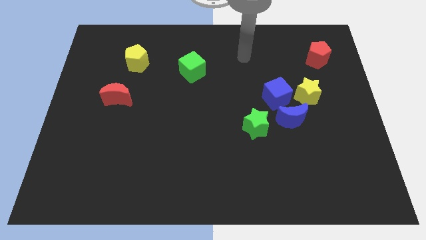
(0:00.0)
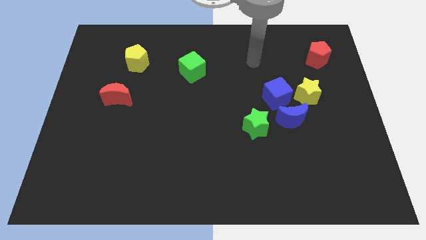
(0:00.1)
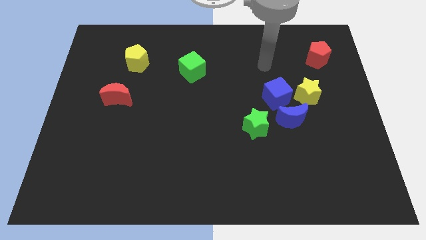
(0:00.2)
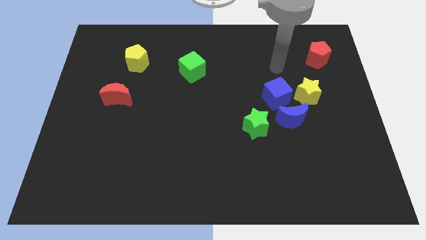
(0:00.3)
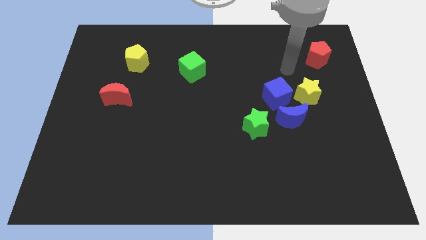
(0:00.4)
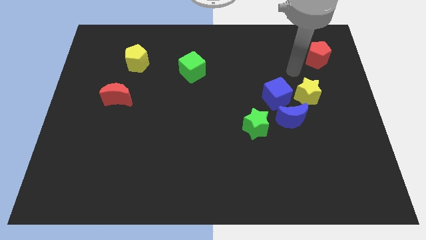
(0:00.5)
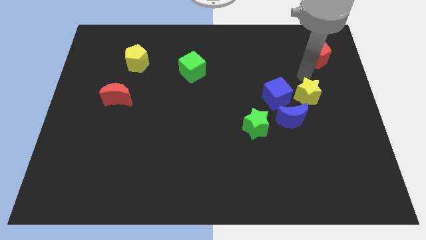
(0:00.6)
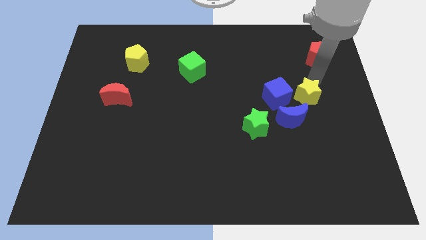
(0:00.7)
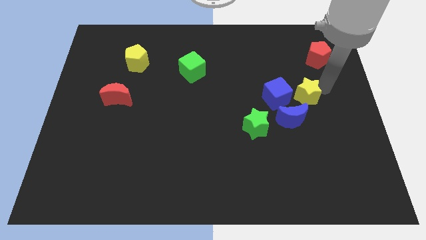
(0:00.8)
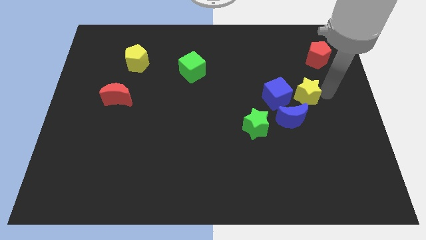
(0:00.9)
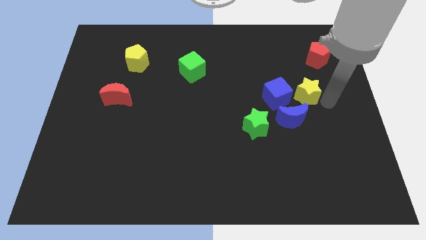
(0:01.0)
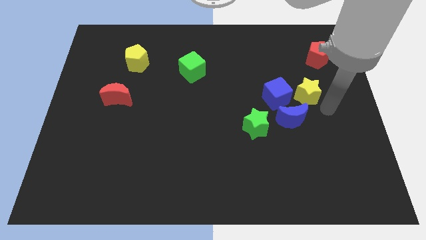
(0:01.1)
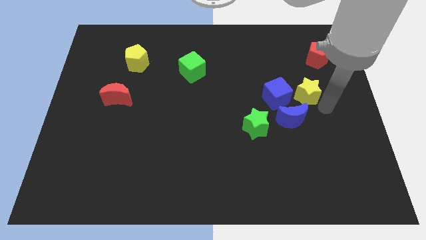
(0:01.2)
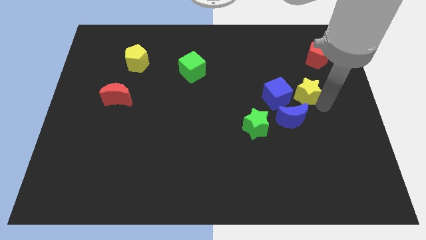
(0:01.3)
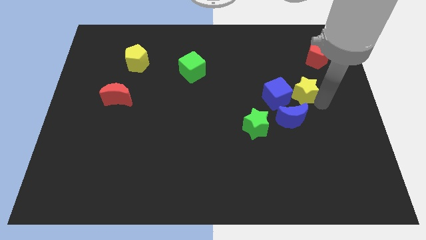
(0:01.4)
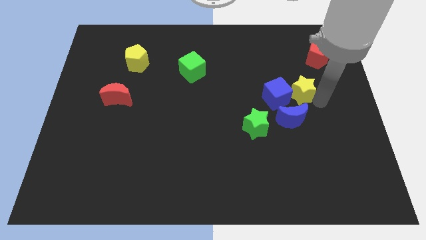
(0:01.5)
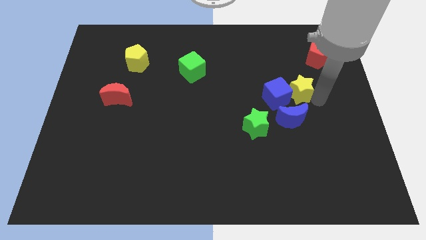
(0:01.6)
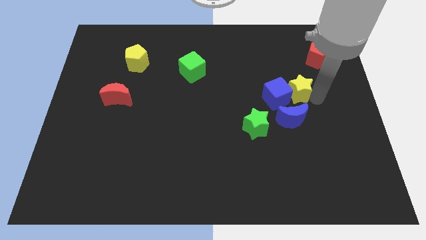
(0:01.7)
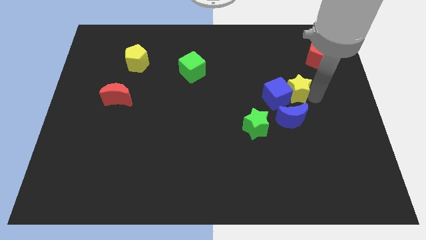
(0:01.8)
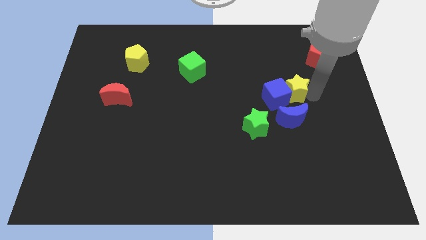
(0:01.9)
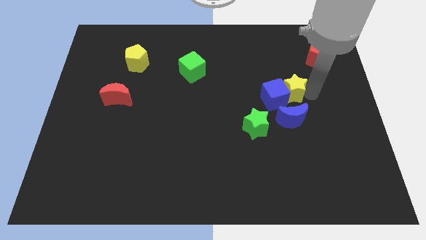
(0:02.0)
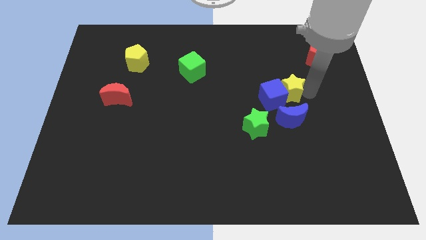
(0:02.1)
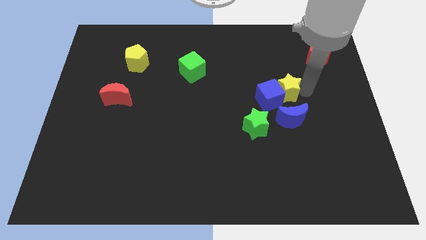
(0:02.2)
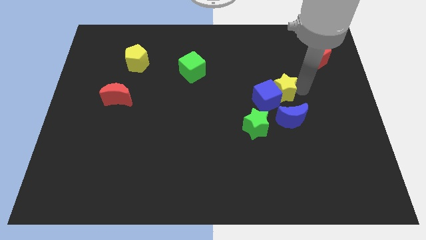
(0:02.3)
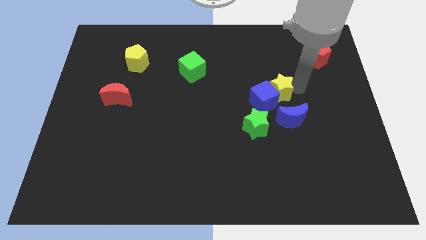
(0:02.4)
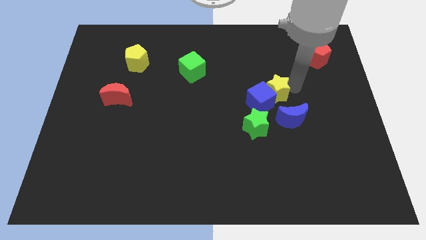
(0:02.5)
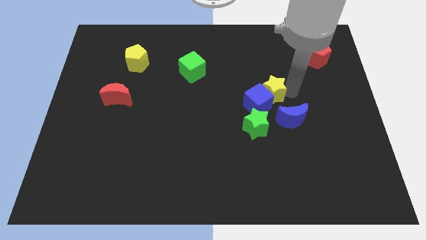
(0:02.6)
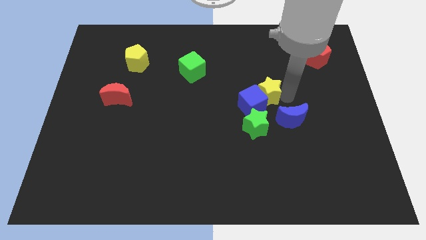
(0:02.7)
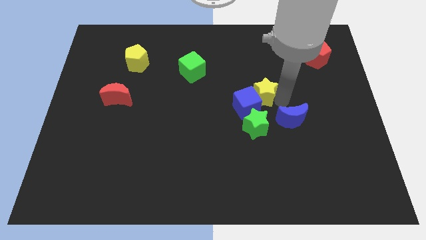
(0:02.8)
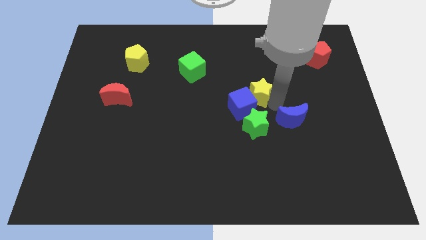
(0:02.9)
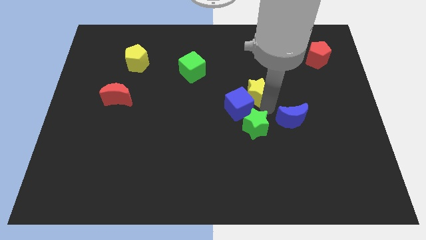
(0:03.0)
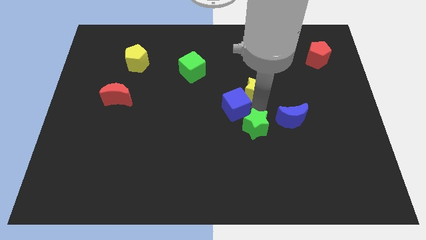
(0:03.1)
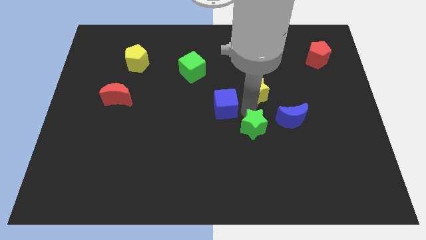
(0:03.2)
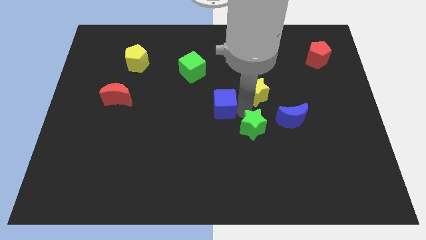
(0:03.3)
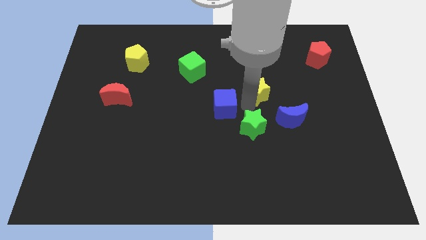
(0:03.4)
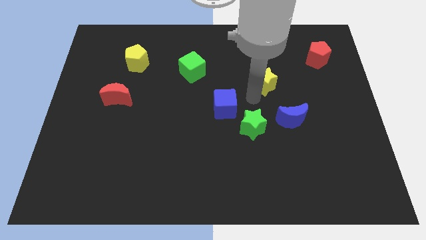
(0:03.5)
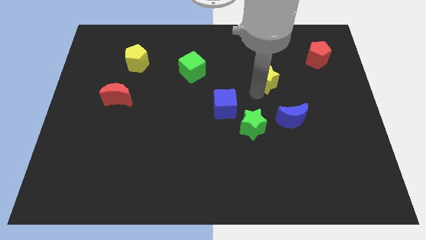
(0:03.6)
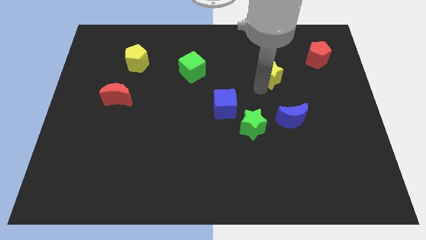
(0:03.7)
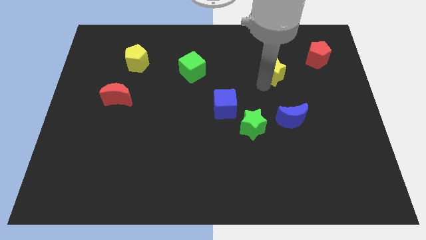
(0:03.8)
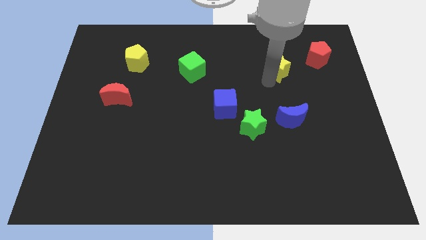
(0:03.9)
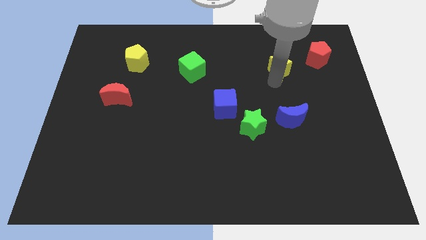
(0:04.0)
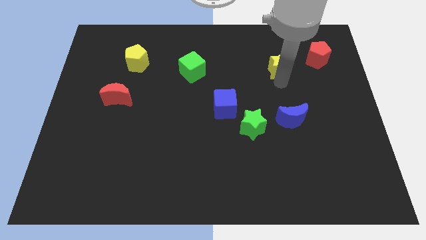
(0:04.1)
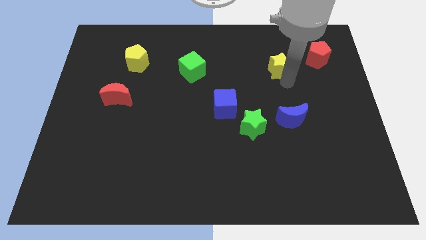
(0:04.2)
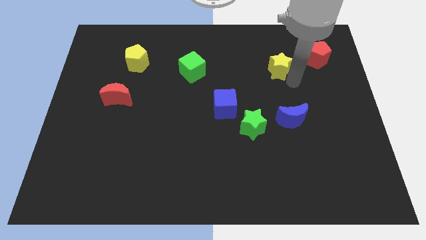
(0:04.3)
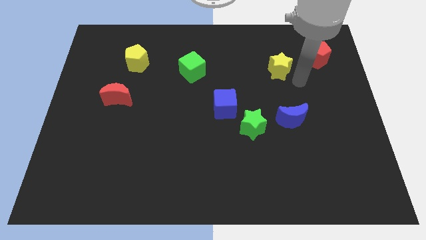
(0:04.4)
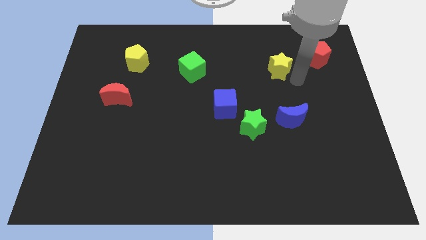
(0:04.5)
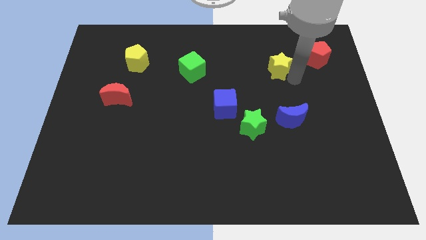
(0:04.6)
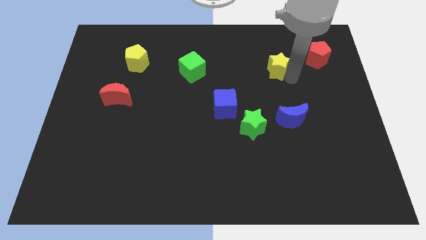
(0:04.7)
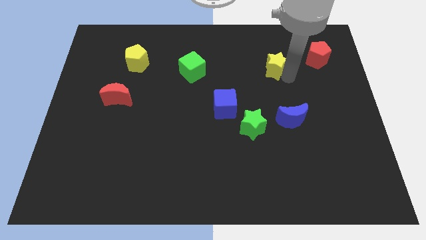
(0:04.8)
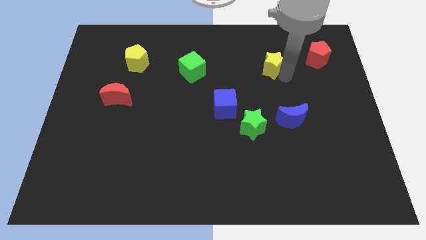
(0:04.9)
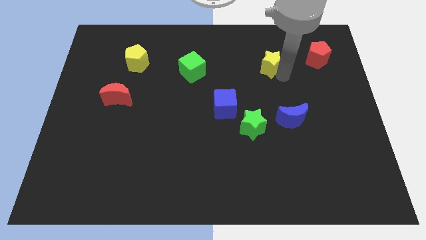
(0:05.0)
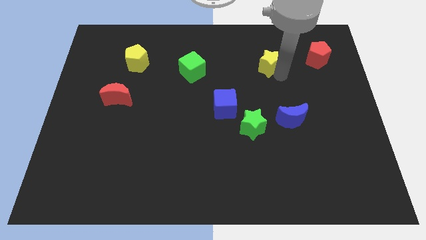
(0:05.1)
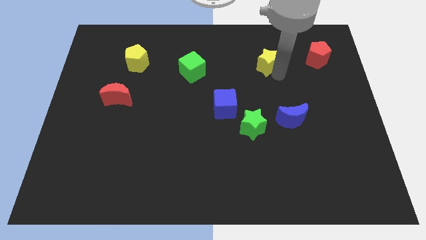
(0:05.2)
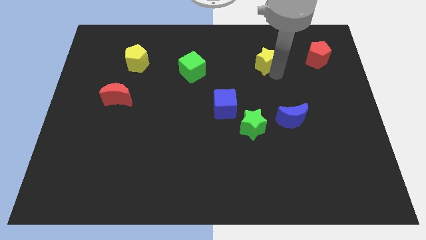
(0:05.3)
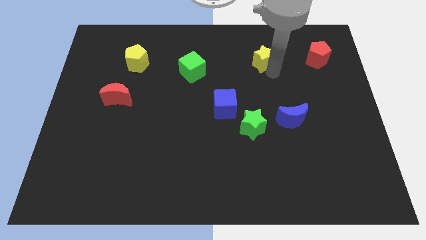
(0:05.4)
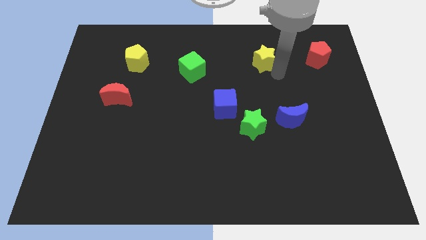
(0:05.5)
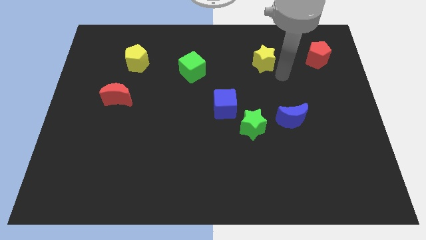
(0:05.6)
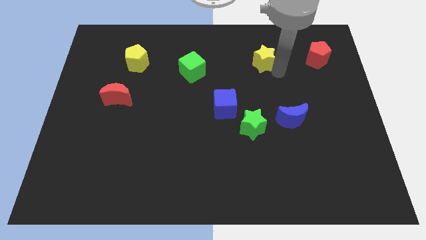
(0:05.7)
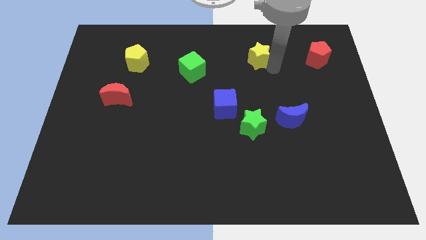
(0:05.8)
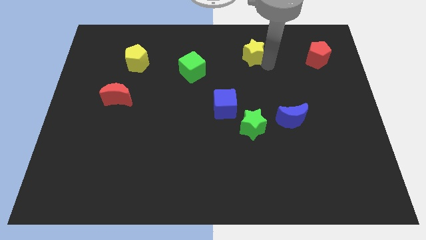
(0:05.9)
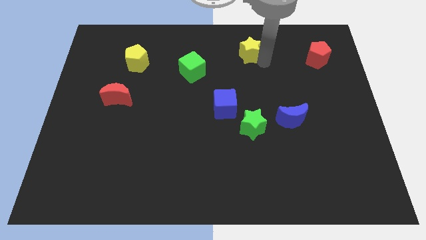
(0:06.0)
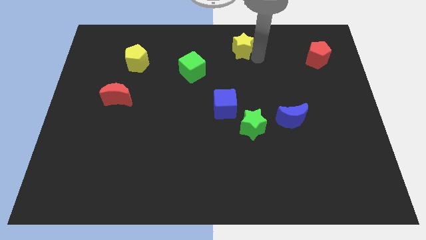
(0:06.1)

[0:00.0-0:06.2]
move the yellow star to the top side

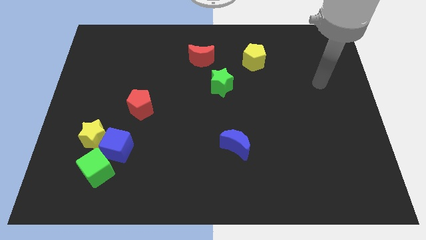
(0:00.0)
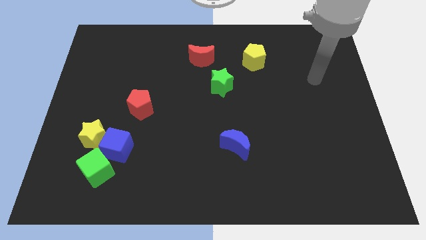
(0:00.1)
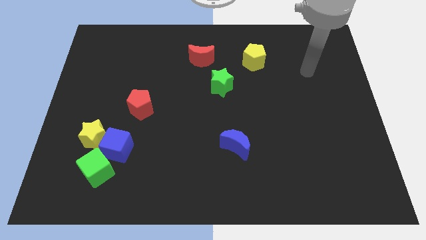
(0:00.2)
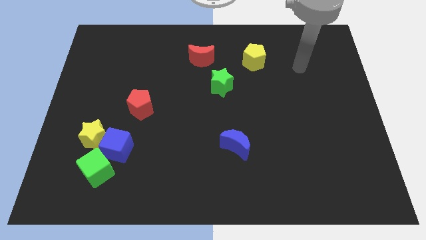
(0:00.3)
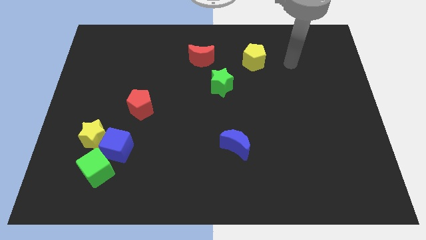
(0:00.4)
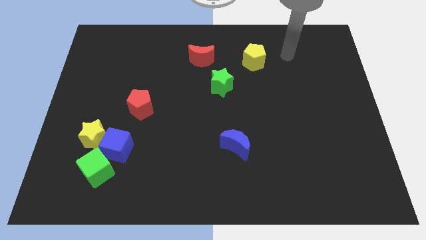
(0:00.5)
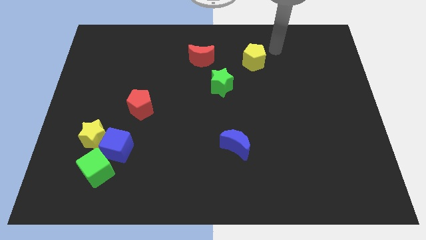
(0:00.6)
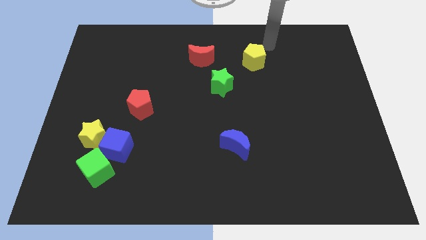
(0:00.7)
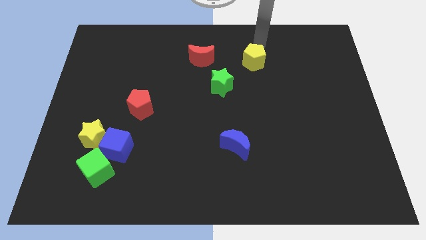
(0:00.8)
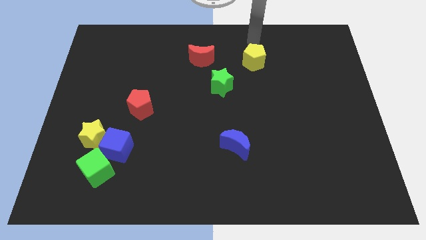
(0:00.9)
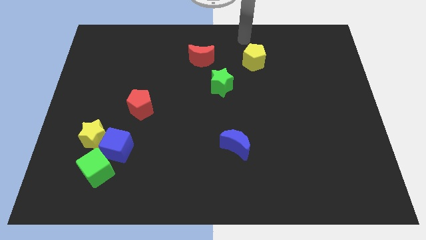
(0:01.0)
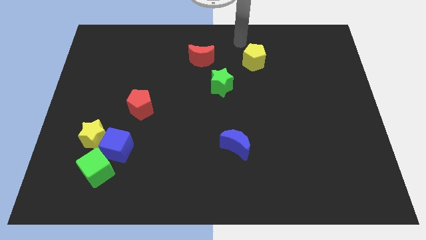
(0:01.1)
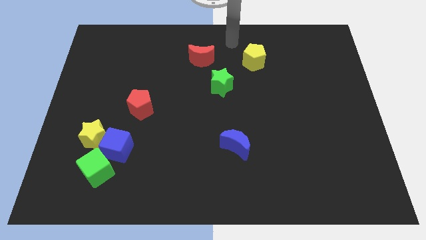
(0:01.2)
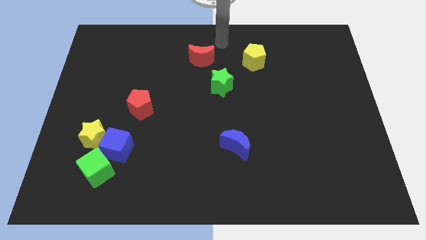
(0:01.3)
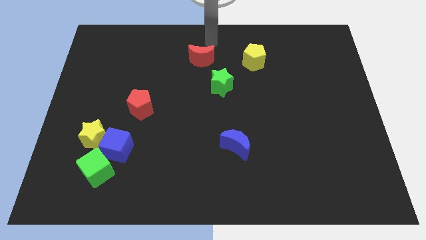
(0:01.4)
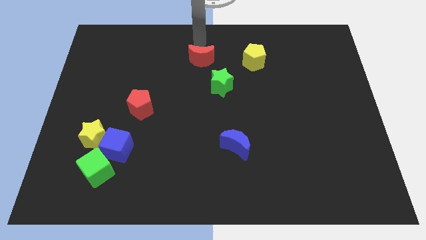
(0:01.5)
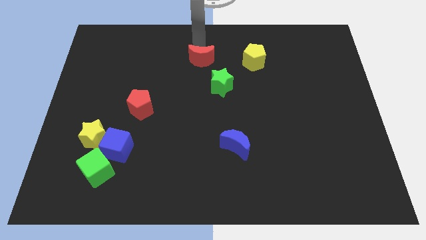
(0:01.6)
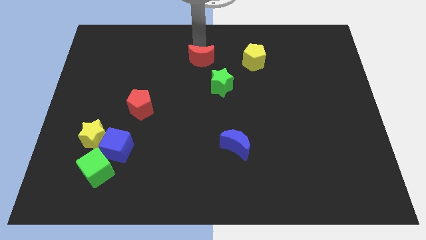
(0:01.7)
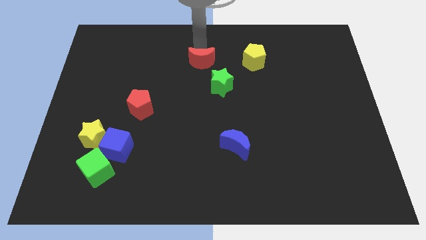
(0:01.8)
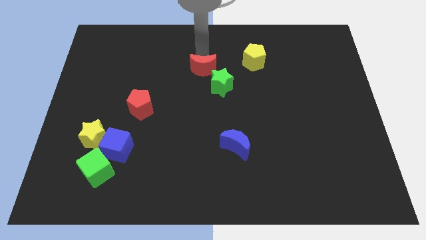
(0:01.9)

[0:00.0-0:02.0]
put the red moon to the middle
